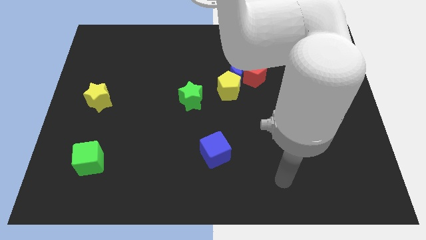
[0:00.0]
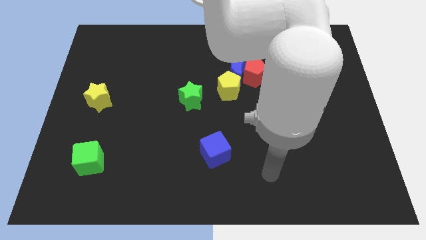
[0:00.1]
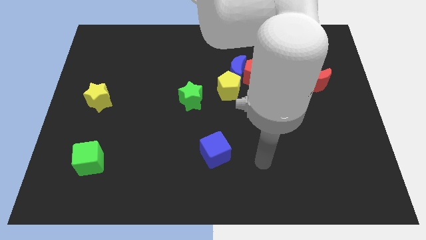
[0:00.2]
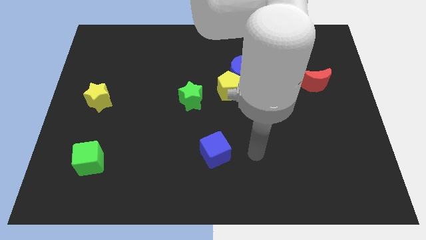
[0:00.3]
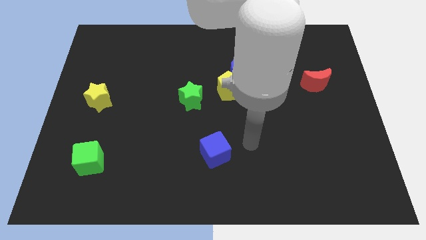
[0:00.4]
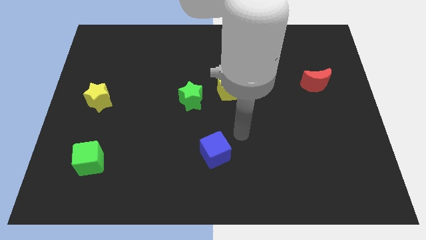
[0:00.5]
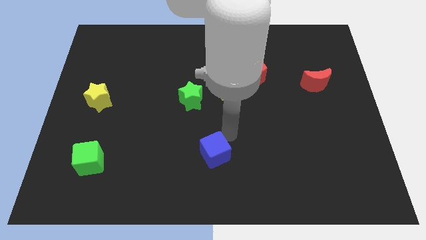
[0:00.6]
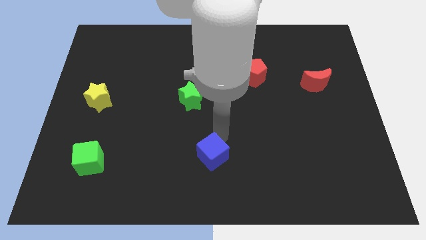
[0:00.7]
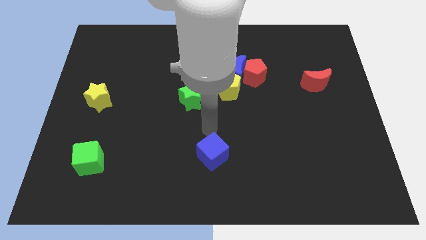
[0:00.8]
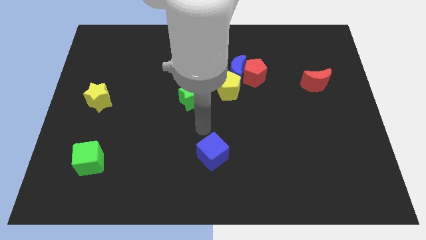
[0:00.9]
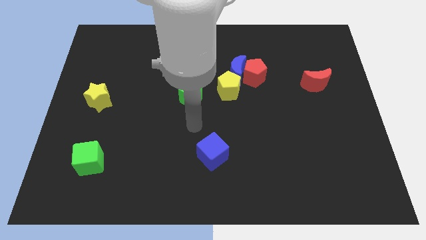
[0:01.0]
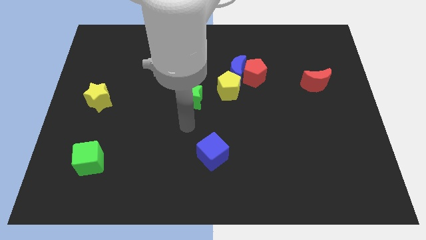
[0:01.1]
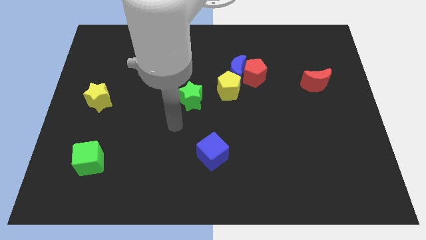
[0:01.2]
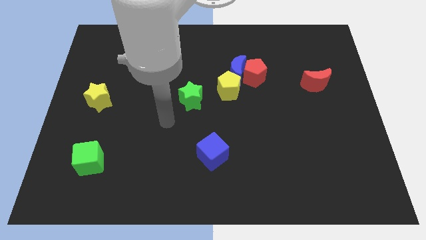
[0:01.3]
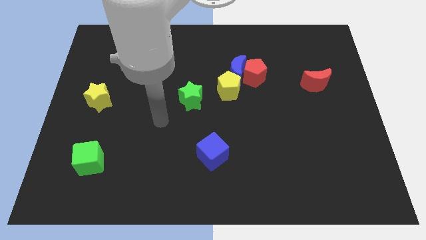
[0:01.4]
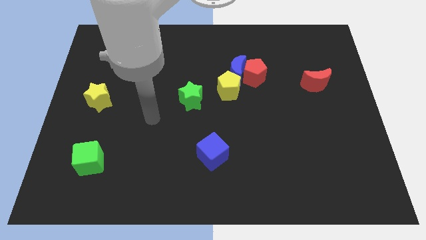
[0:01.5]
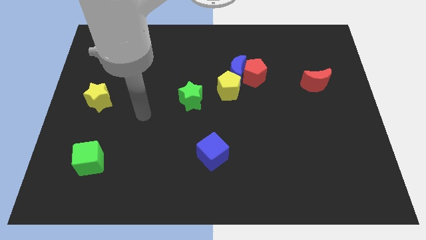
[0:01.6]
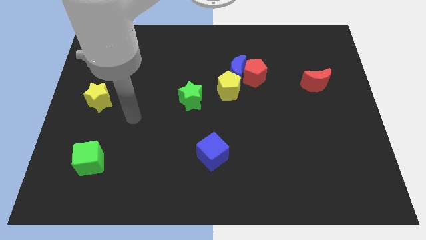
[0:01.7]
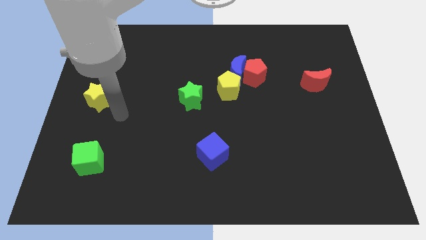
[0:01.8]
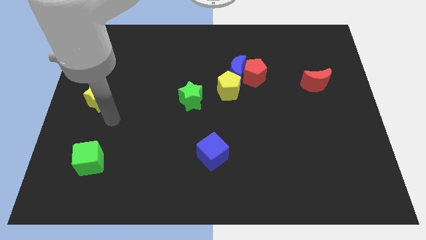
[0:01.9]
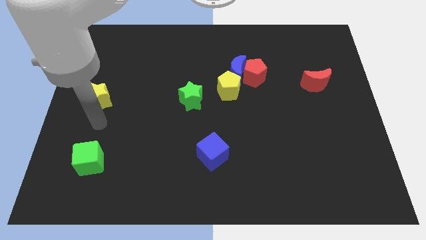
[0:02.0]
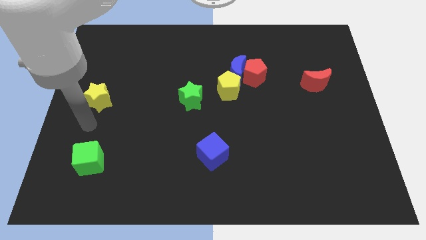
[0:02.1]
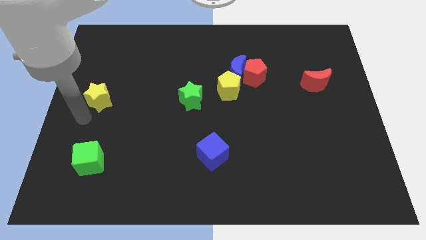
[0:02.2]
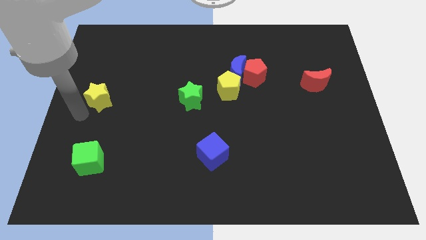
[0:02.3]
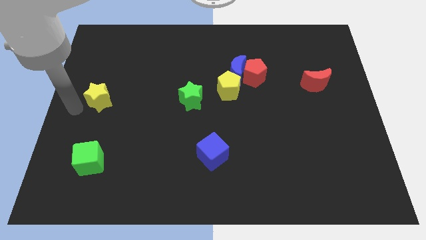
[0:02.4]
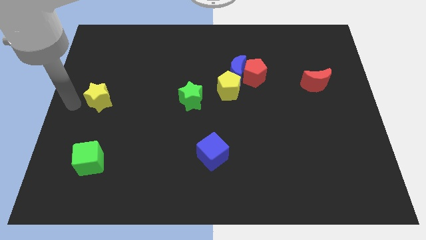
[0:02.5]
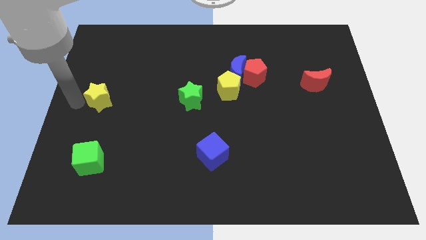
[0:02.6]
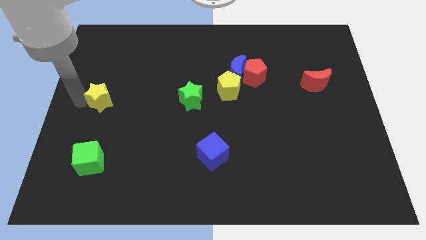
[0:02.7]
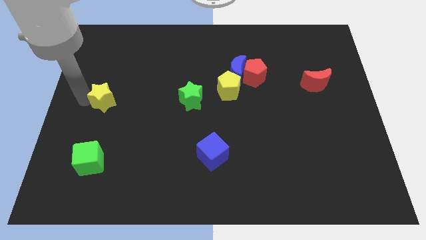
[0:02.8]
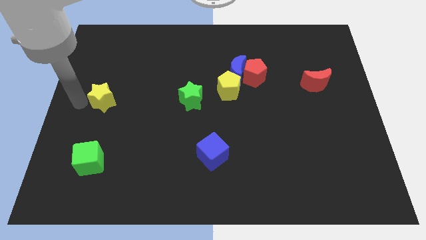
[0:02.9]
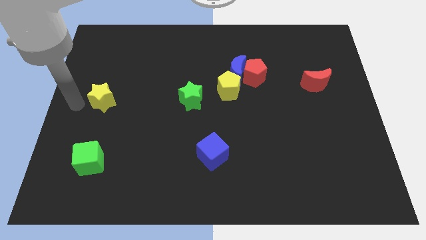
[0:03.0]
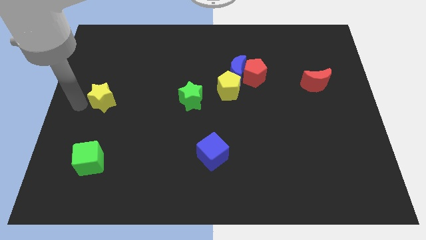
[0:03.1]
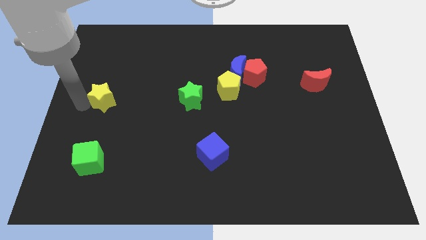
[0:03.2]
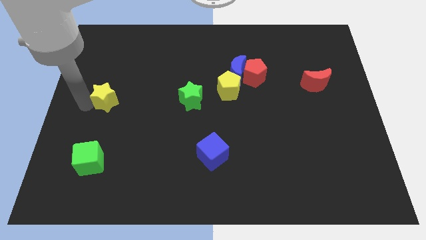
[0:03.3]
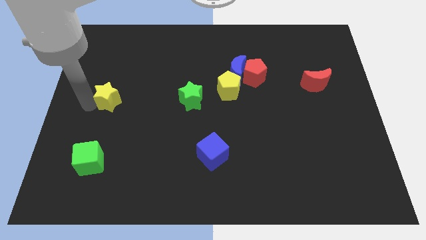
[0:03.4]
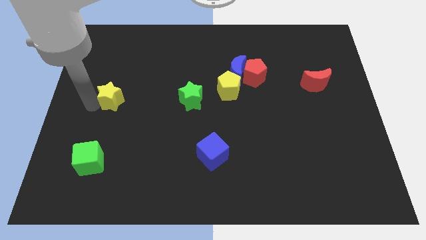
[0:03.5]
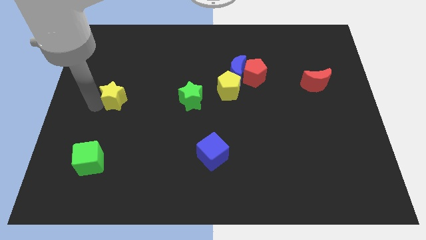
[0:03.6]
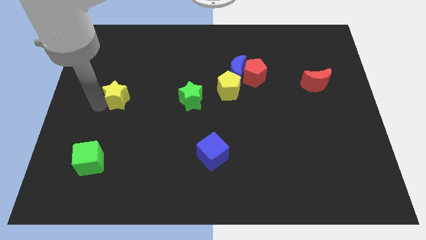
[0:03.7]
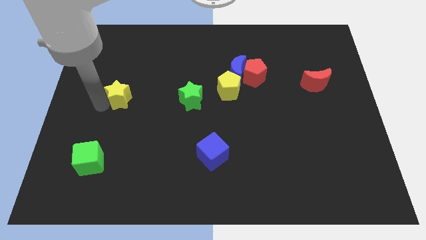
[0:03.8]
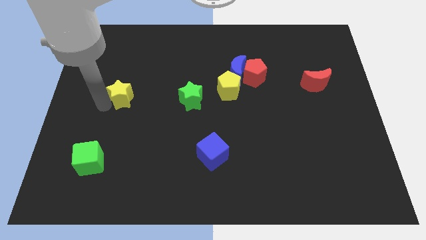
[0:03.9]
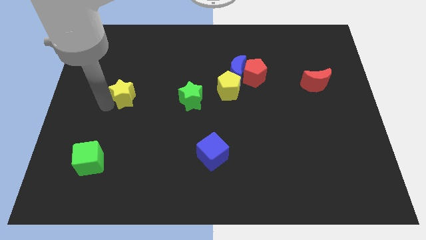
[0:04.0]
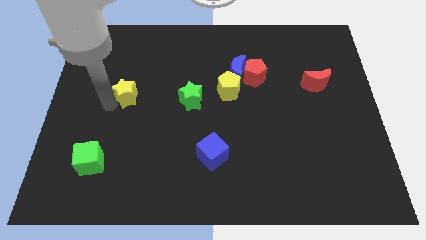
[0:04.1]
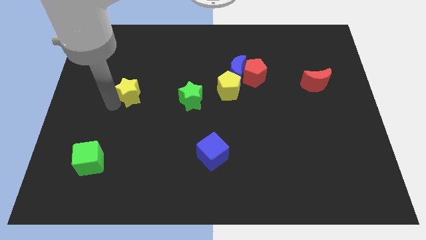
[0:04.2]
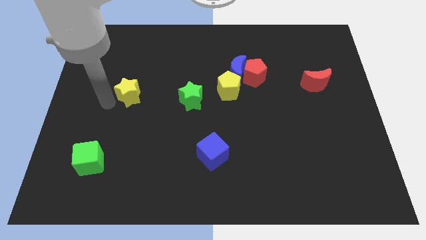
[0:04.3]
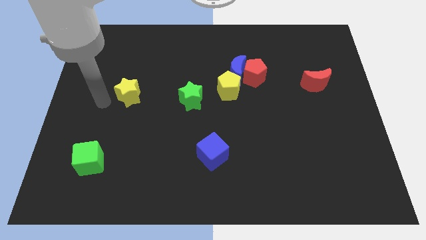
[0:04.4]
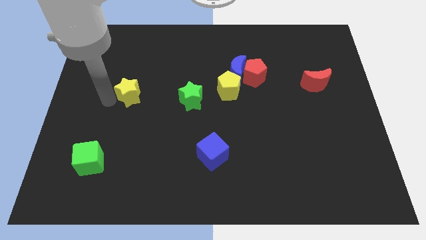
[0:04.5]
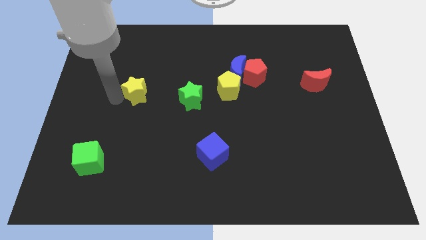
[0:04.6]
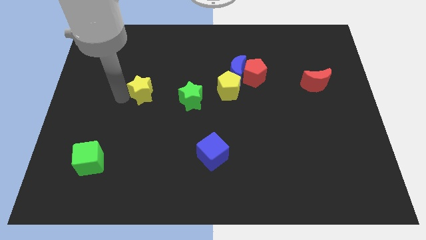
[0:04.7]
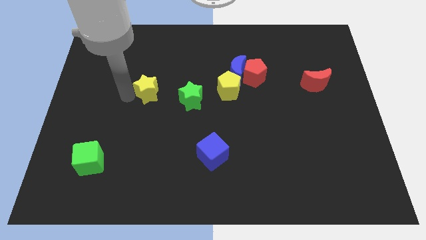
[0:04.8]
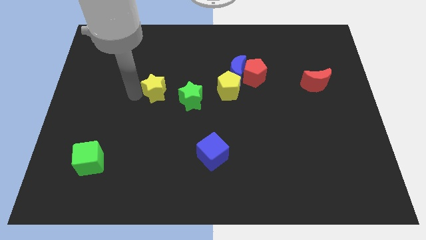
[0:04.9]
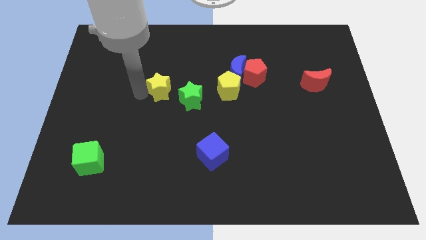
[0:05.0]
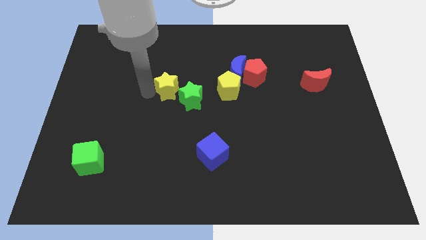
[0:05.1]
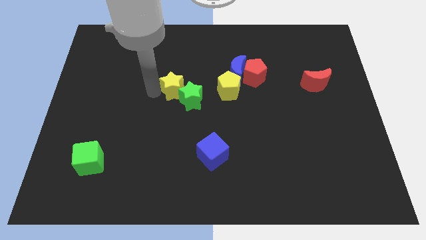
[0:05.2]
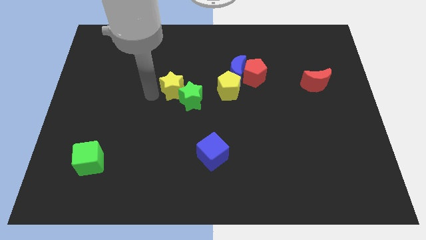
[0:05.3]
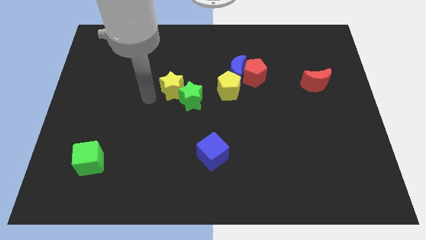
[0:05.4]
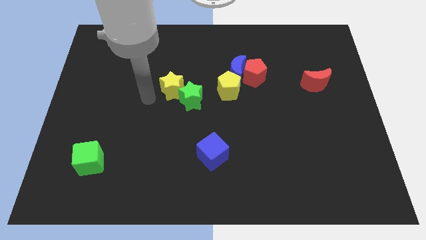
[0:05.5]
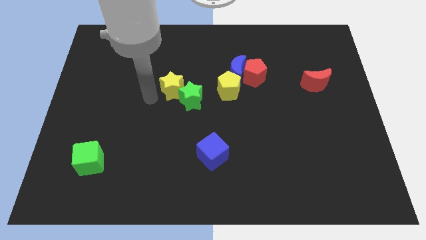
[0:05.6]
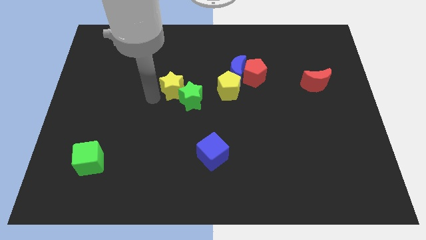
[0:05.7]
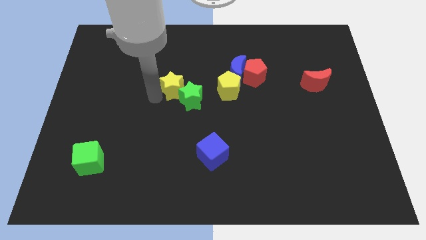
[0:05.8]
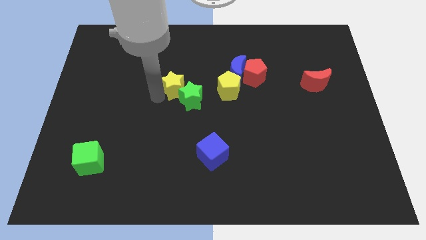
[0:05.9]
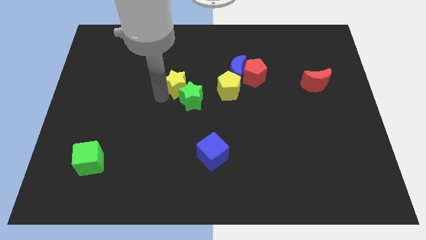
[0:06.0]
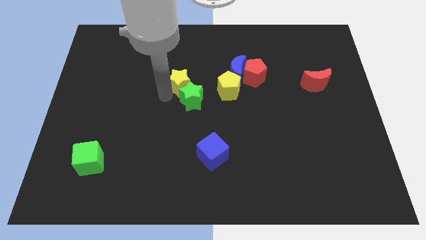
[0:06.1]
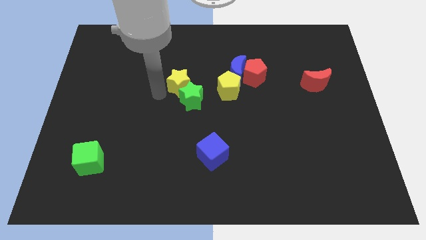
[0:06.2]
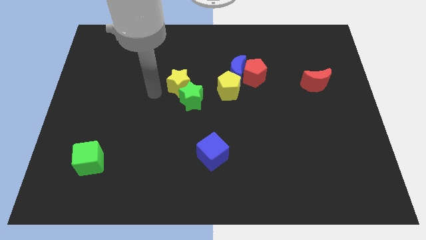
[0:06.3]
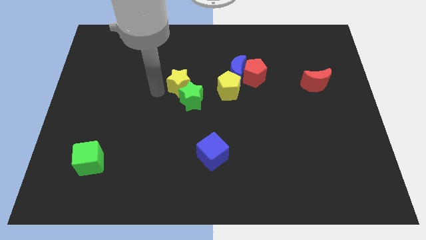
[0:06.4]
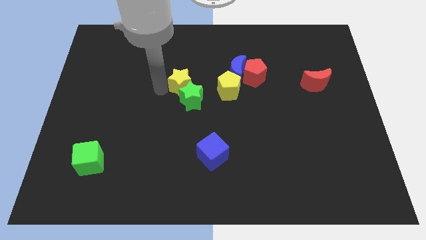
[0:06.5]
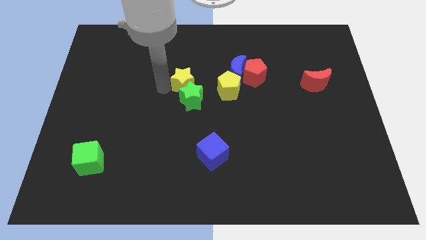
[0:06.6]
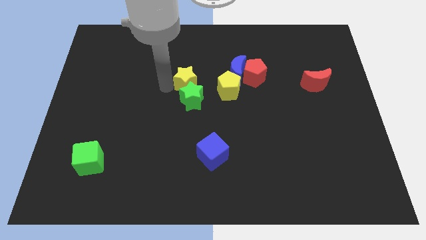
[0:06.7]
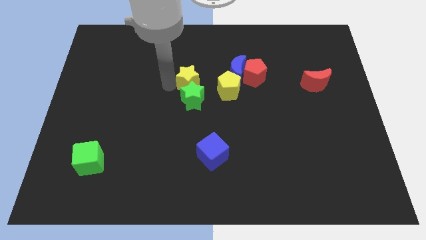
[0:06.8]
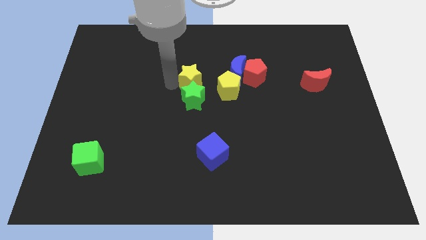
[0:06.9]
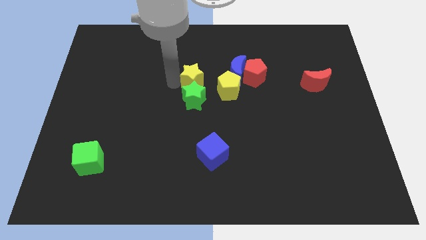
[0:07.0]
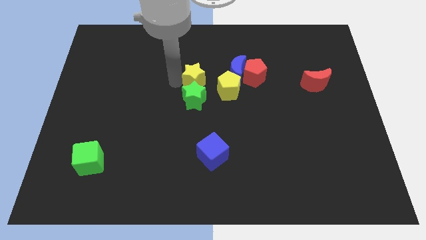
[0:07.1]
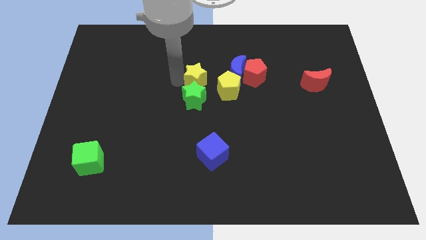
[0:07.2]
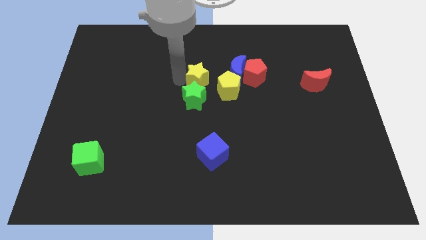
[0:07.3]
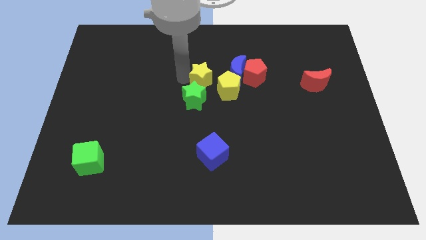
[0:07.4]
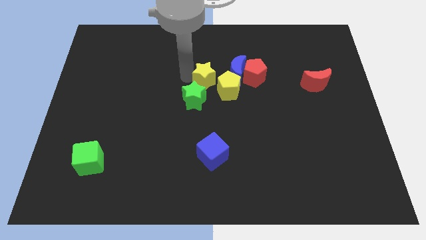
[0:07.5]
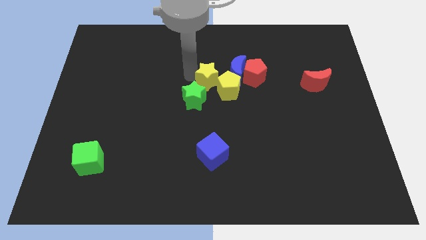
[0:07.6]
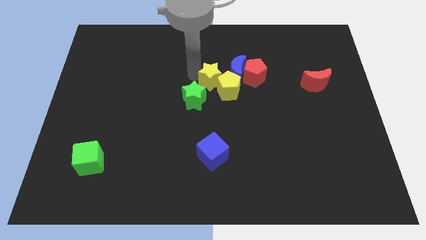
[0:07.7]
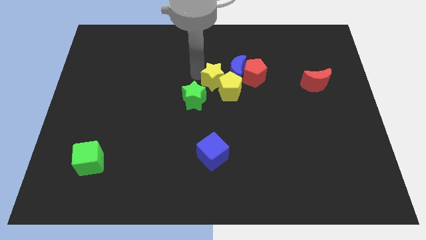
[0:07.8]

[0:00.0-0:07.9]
move the yellow star close to the blue moon
